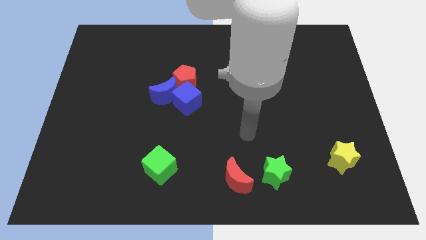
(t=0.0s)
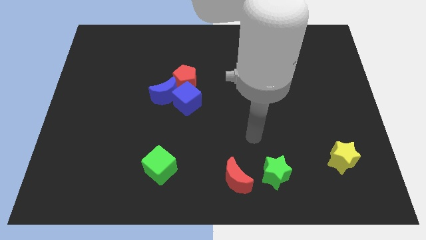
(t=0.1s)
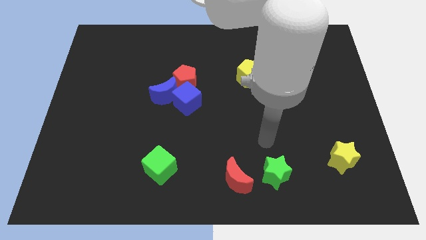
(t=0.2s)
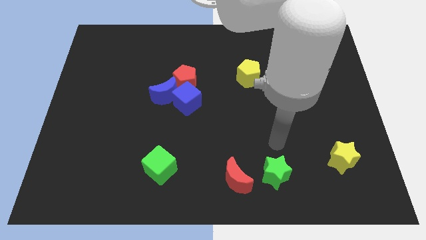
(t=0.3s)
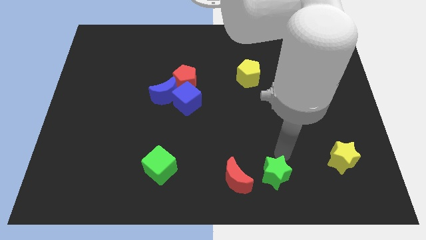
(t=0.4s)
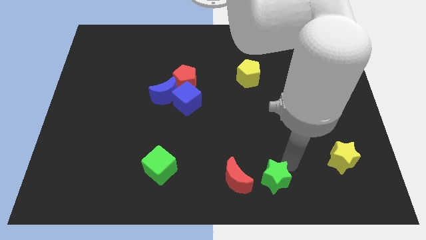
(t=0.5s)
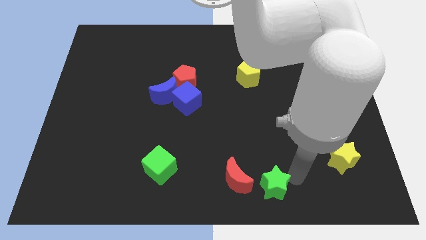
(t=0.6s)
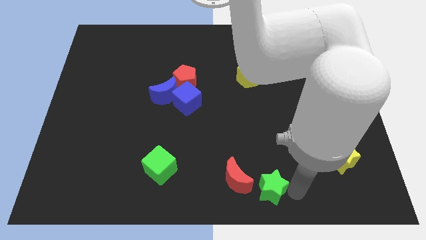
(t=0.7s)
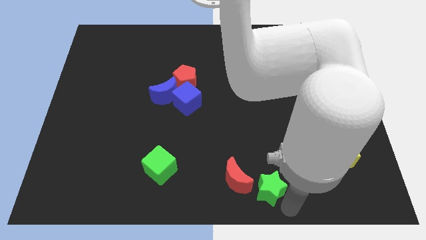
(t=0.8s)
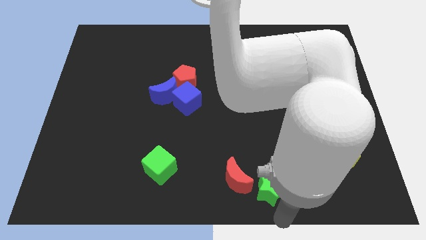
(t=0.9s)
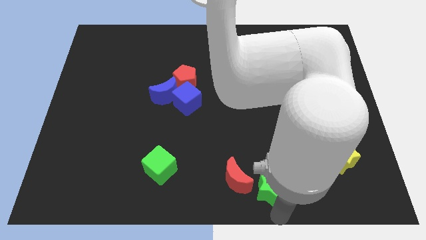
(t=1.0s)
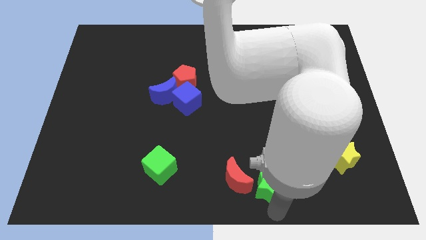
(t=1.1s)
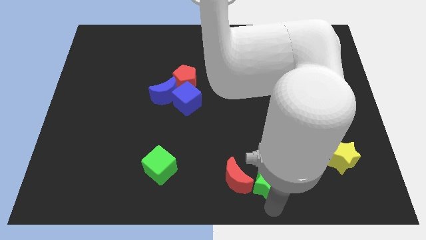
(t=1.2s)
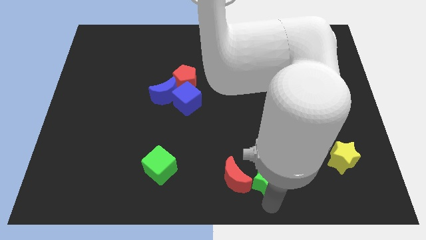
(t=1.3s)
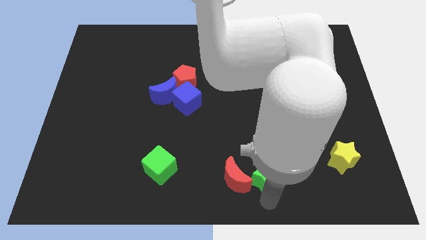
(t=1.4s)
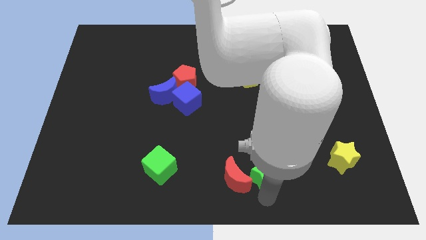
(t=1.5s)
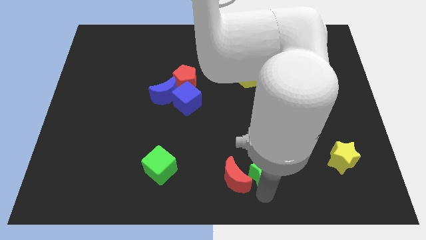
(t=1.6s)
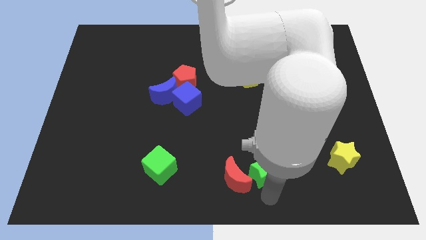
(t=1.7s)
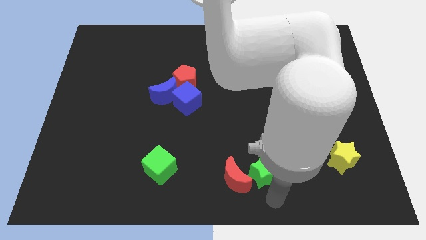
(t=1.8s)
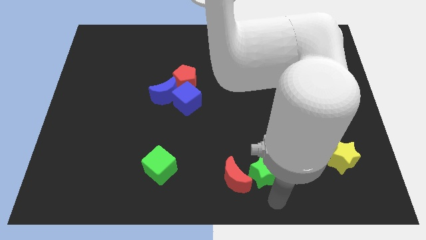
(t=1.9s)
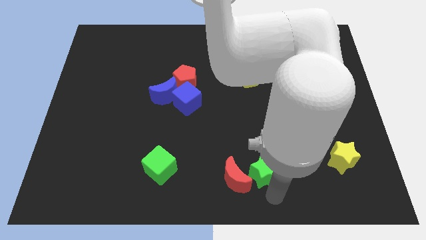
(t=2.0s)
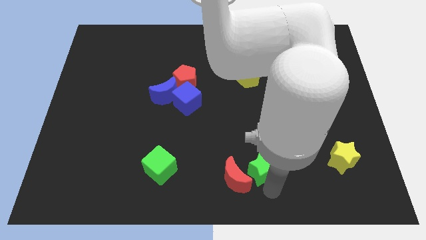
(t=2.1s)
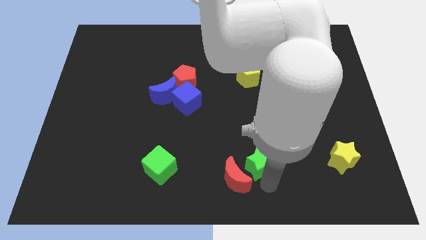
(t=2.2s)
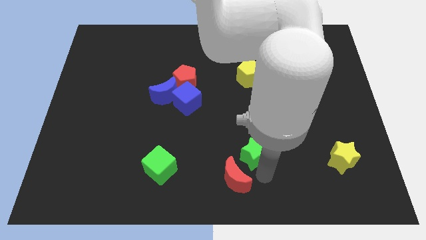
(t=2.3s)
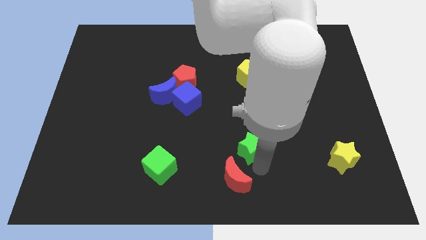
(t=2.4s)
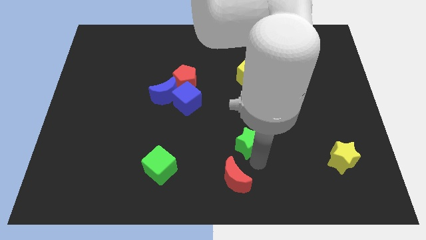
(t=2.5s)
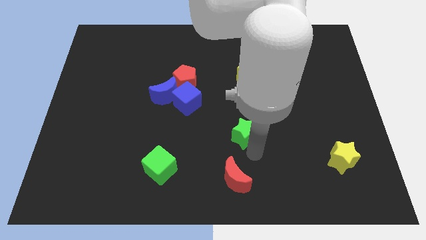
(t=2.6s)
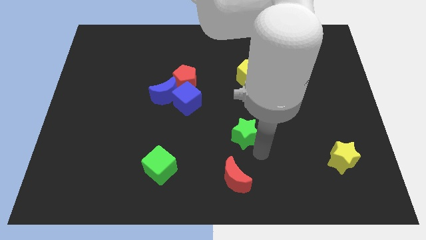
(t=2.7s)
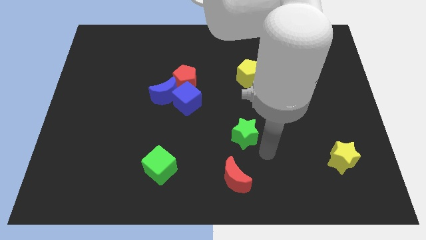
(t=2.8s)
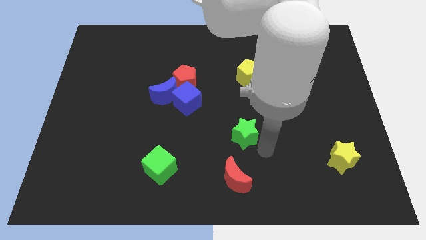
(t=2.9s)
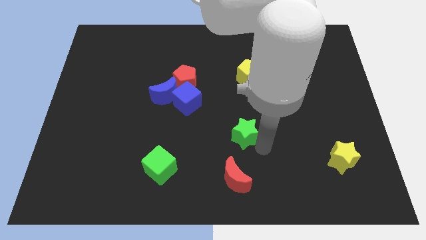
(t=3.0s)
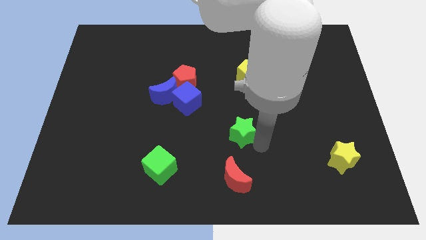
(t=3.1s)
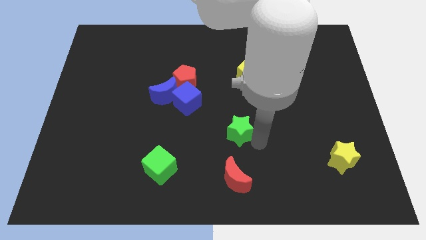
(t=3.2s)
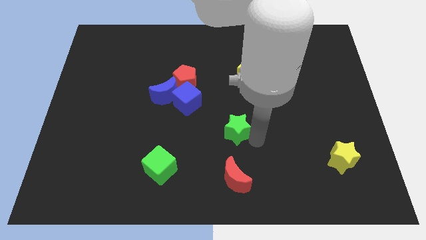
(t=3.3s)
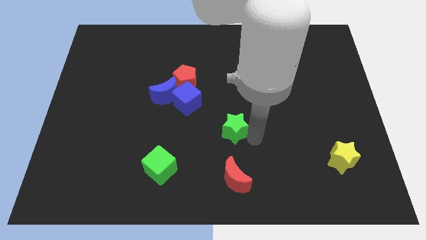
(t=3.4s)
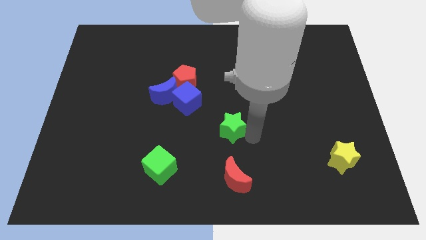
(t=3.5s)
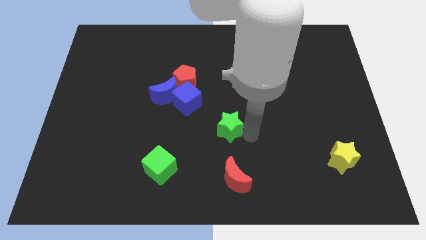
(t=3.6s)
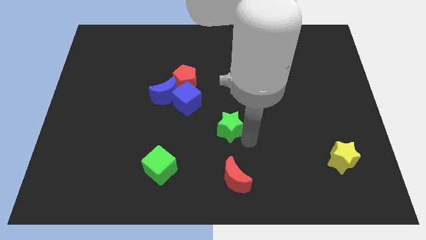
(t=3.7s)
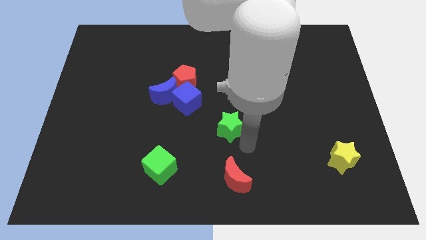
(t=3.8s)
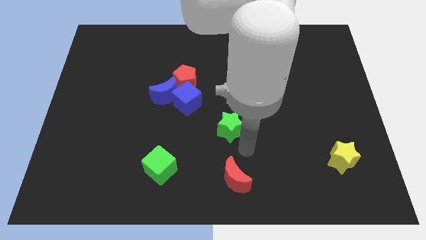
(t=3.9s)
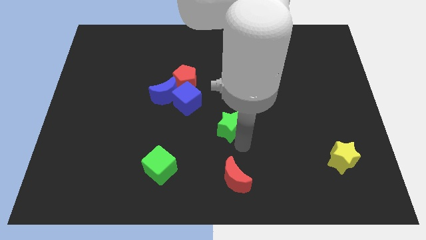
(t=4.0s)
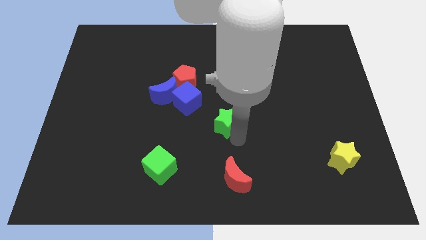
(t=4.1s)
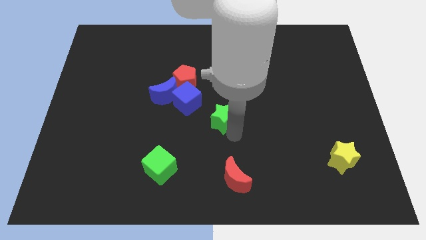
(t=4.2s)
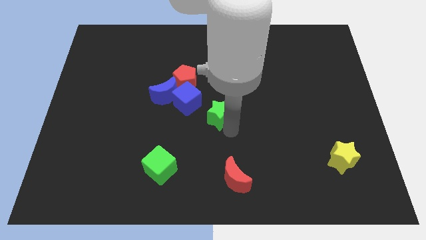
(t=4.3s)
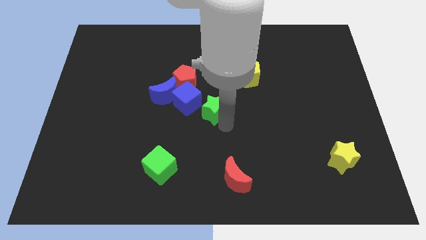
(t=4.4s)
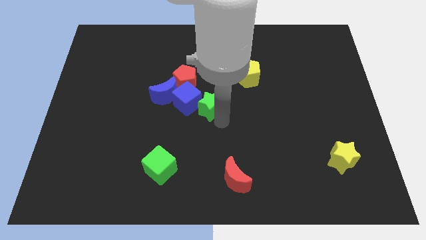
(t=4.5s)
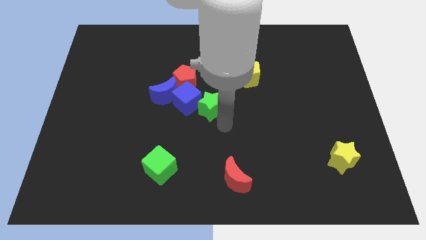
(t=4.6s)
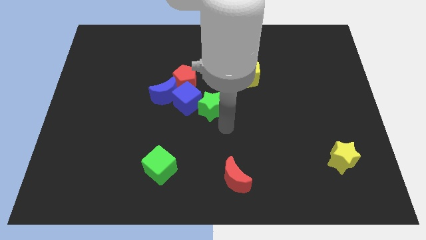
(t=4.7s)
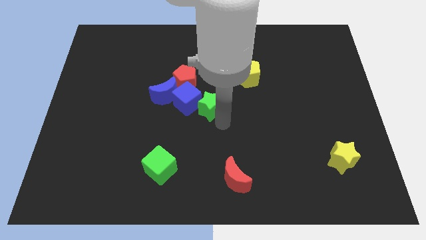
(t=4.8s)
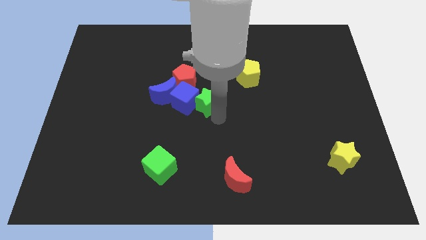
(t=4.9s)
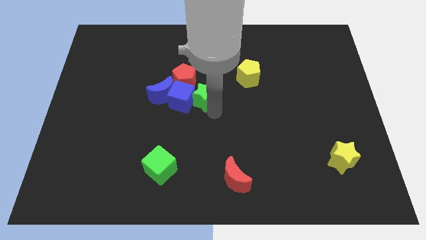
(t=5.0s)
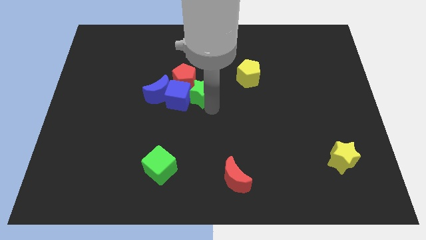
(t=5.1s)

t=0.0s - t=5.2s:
move the green star close to the red pentagon

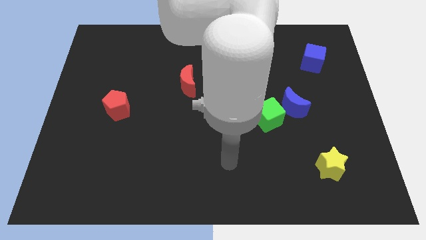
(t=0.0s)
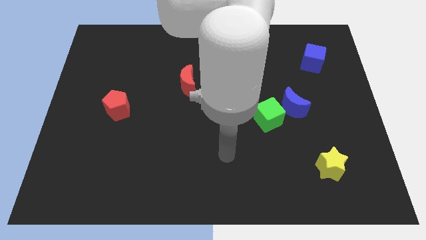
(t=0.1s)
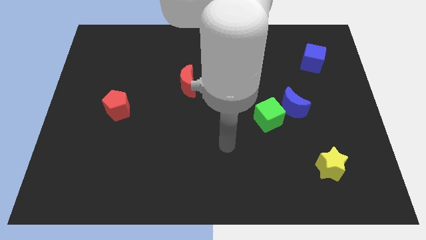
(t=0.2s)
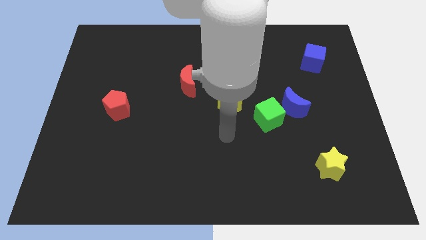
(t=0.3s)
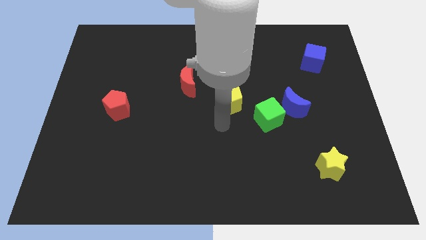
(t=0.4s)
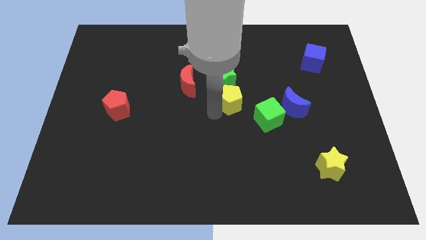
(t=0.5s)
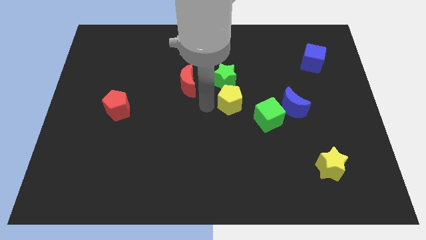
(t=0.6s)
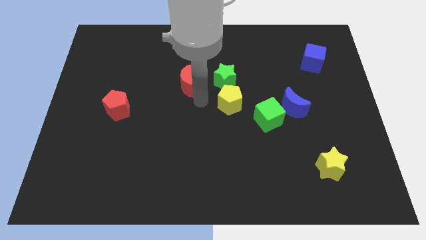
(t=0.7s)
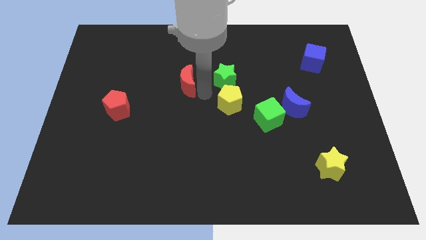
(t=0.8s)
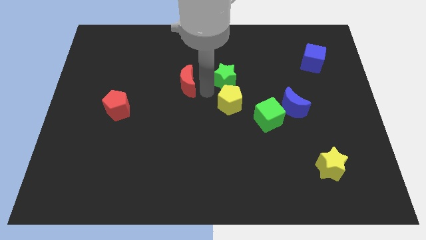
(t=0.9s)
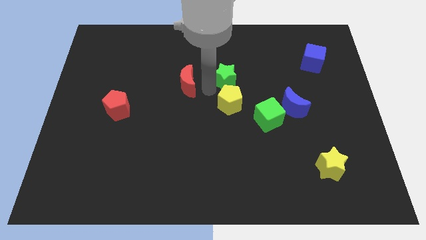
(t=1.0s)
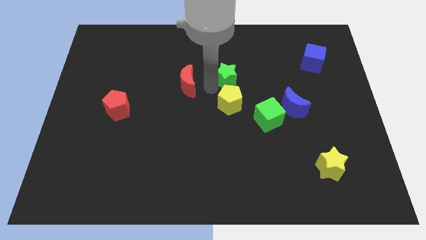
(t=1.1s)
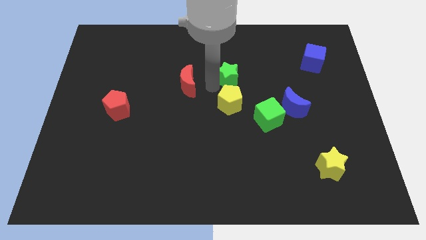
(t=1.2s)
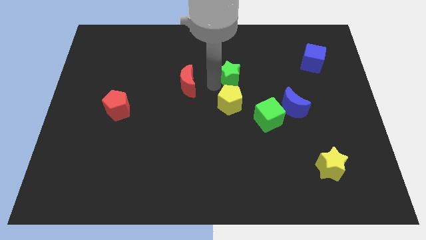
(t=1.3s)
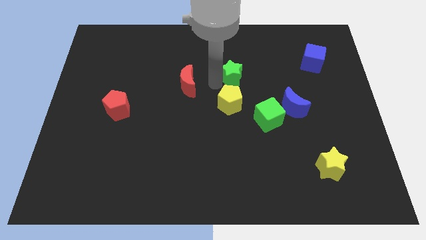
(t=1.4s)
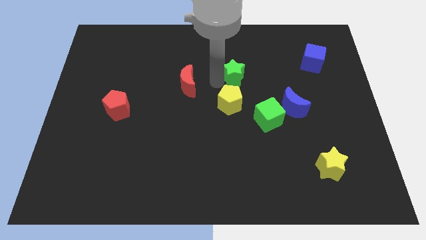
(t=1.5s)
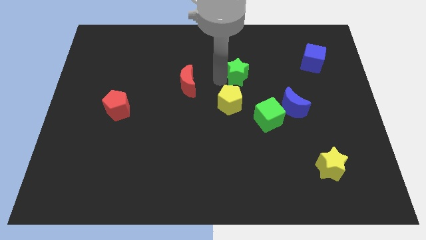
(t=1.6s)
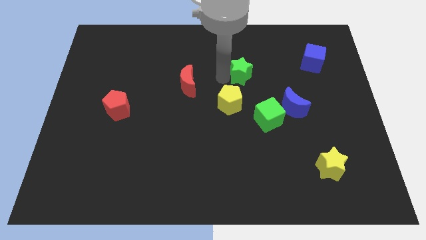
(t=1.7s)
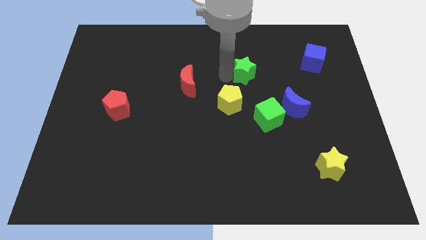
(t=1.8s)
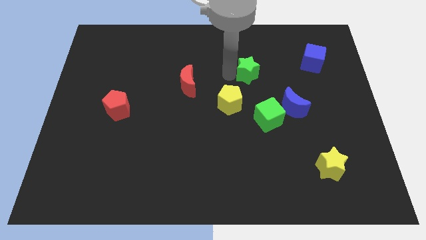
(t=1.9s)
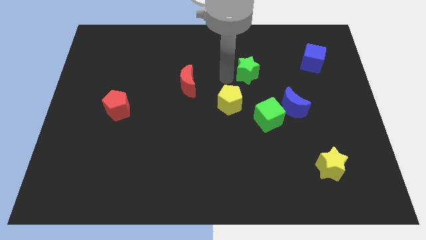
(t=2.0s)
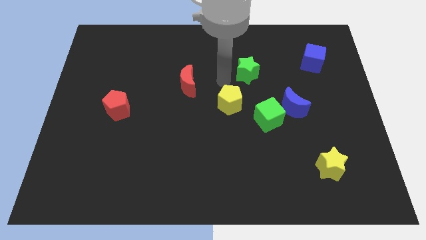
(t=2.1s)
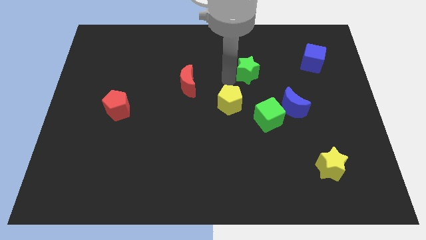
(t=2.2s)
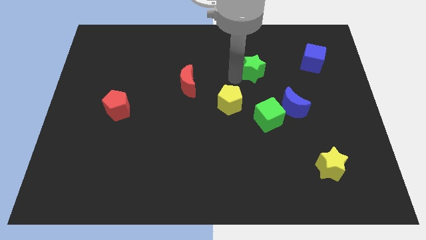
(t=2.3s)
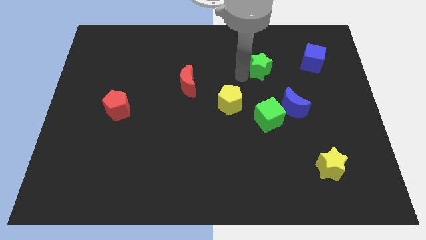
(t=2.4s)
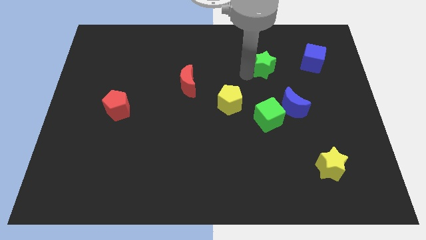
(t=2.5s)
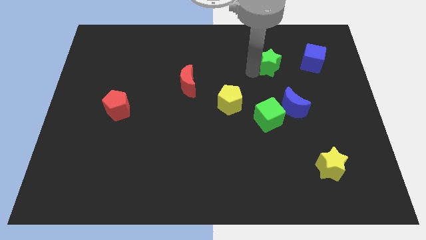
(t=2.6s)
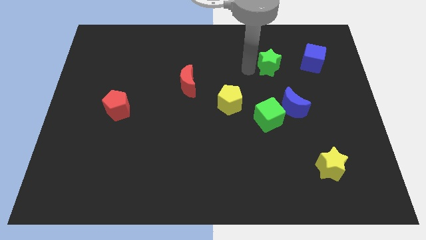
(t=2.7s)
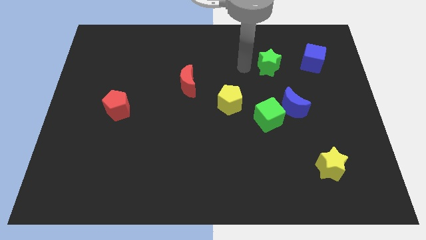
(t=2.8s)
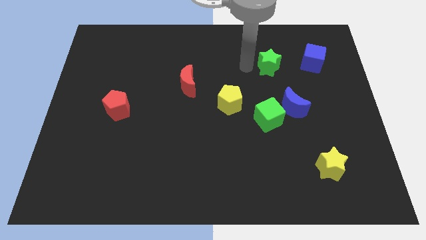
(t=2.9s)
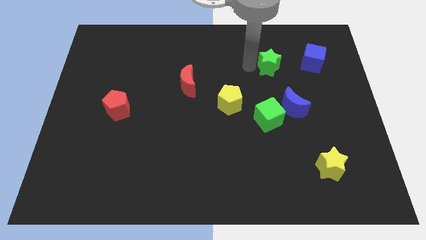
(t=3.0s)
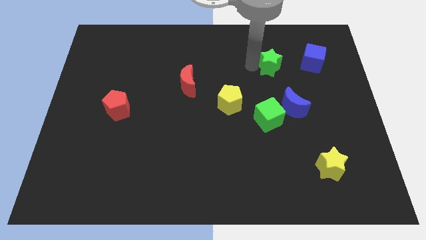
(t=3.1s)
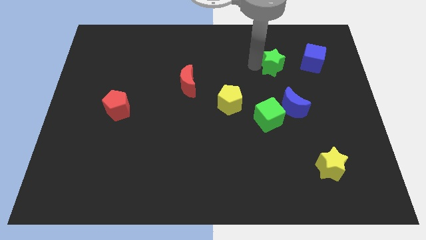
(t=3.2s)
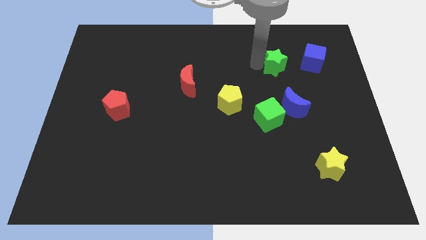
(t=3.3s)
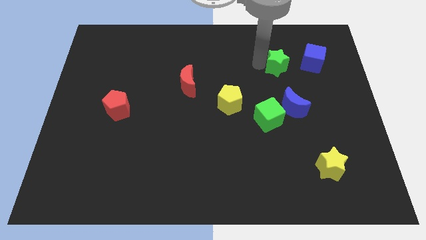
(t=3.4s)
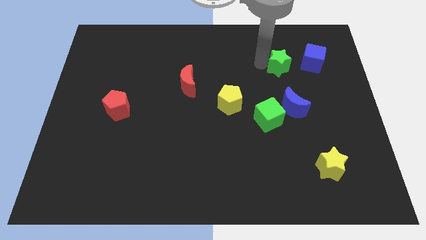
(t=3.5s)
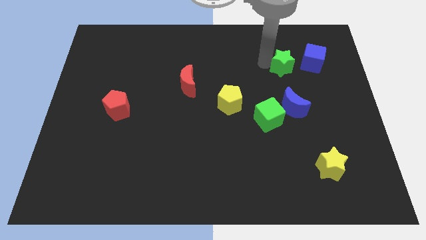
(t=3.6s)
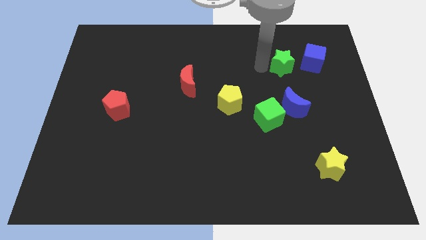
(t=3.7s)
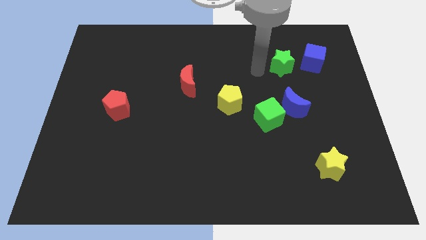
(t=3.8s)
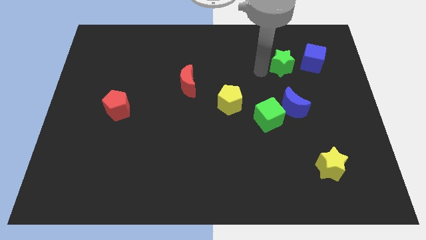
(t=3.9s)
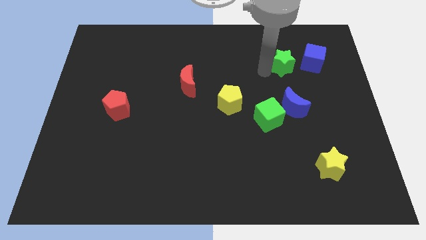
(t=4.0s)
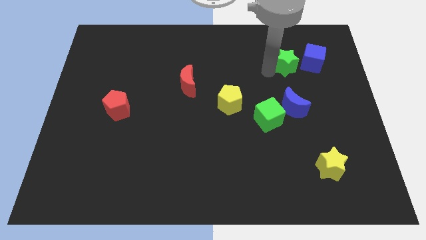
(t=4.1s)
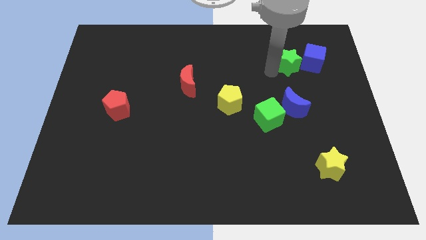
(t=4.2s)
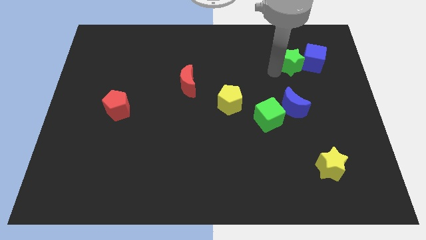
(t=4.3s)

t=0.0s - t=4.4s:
move the green star towards the blue cube
